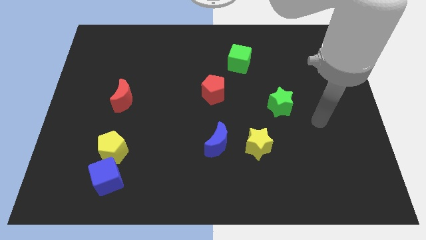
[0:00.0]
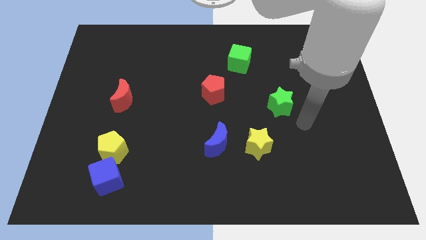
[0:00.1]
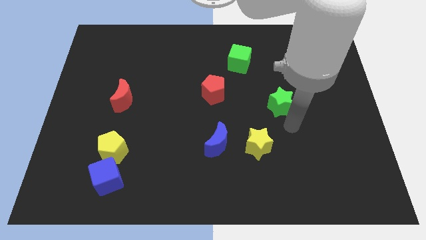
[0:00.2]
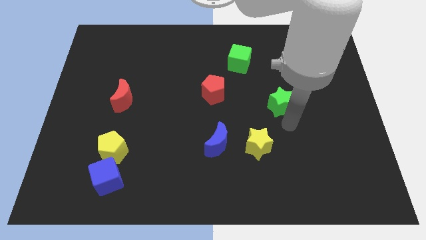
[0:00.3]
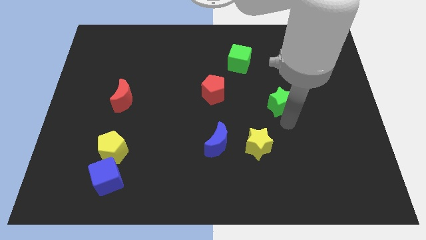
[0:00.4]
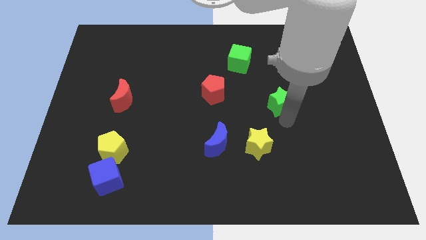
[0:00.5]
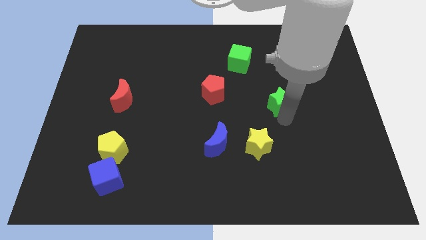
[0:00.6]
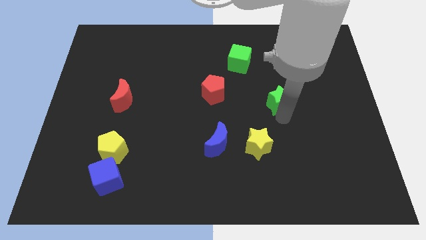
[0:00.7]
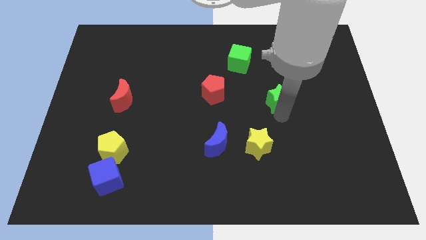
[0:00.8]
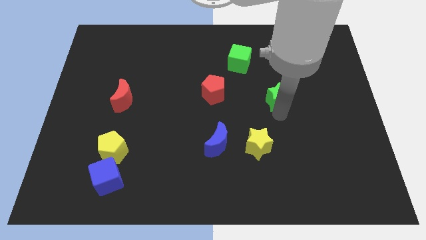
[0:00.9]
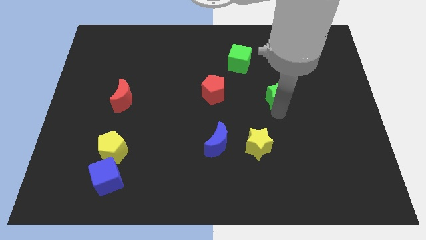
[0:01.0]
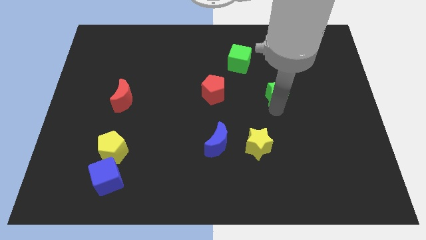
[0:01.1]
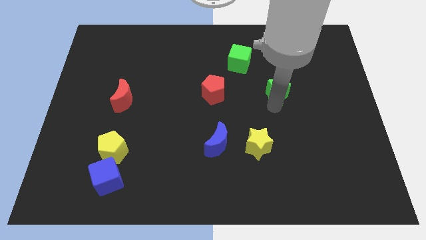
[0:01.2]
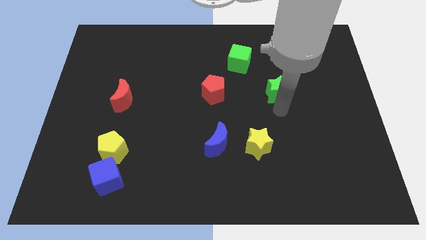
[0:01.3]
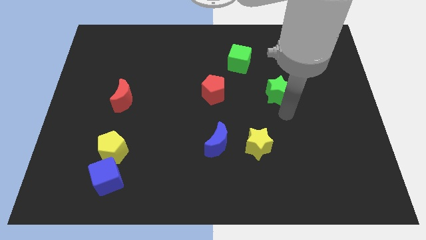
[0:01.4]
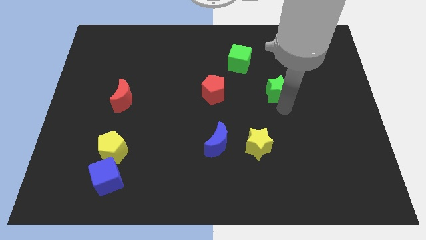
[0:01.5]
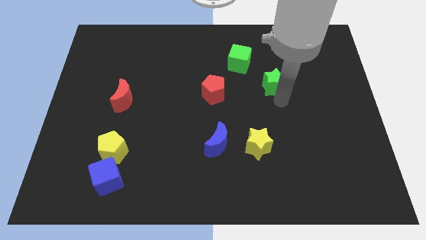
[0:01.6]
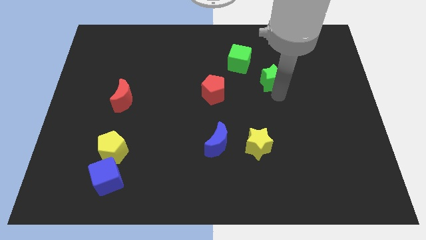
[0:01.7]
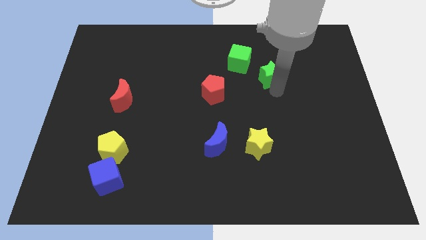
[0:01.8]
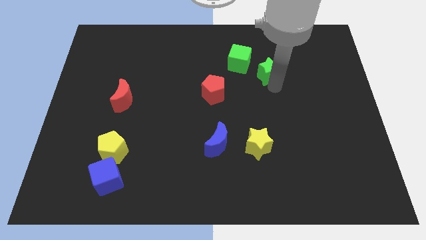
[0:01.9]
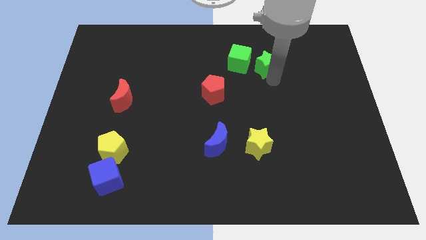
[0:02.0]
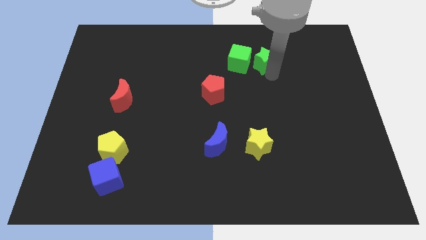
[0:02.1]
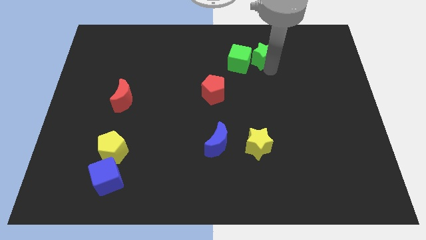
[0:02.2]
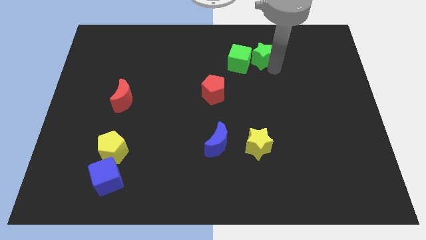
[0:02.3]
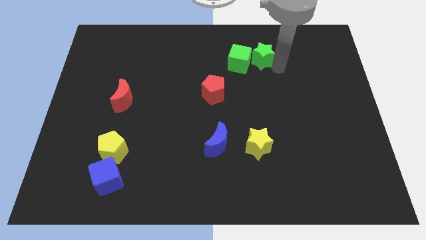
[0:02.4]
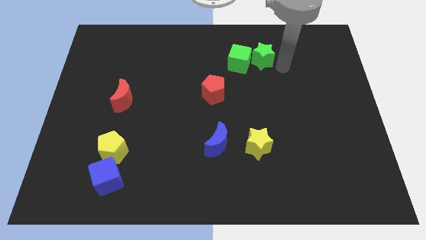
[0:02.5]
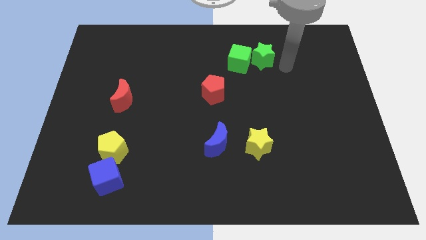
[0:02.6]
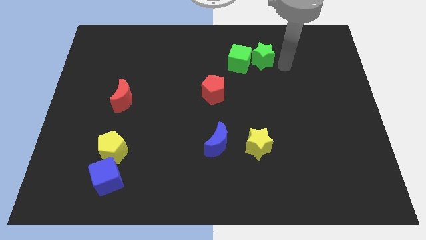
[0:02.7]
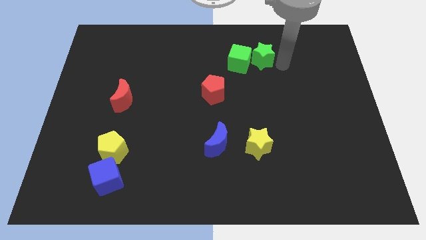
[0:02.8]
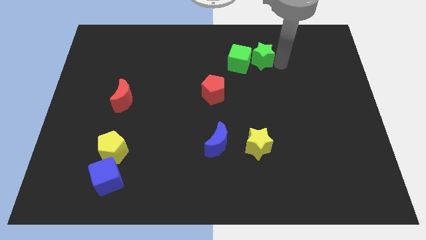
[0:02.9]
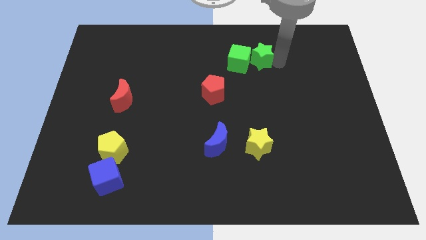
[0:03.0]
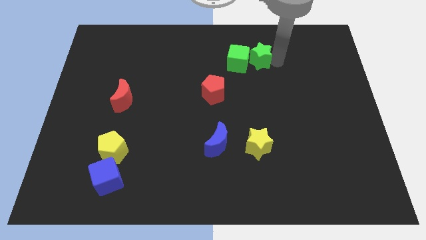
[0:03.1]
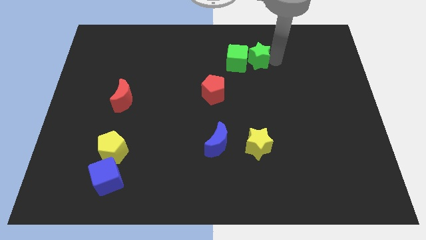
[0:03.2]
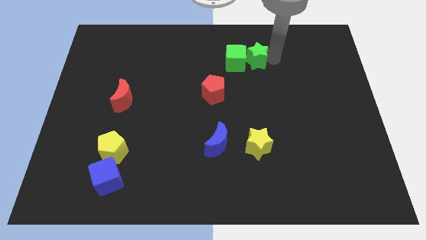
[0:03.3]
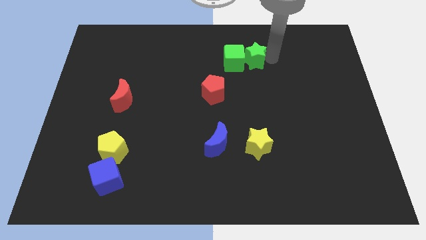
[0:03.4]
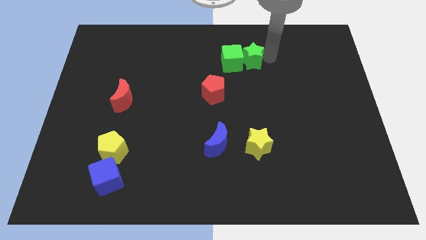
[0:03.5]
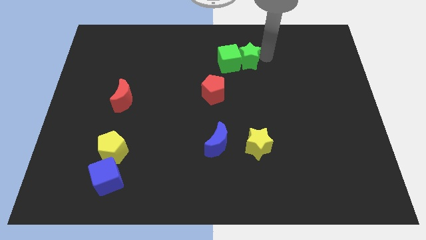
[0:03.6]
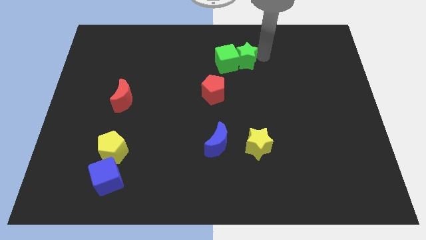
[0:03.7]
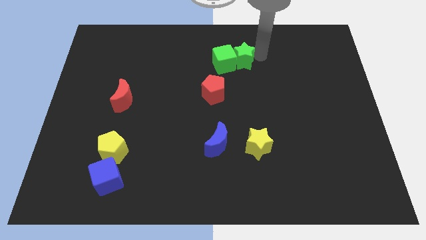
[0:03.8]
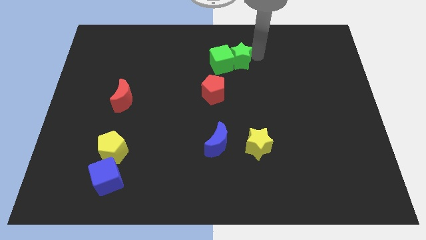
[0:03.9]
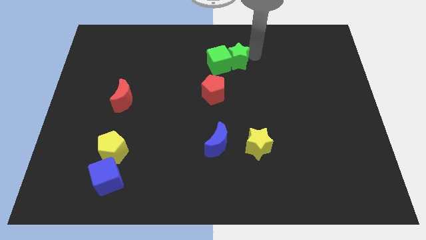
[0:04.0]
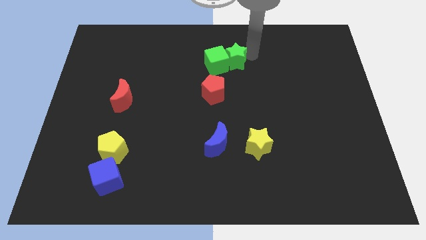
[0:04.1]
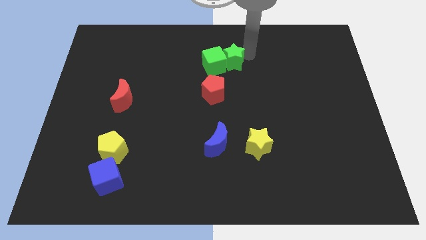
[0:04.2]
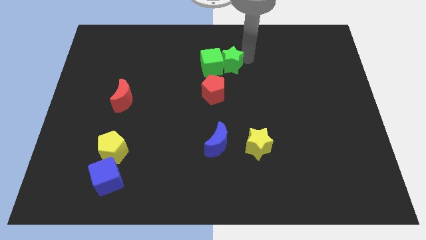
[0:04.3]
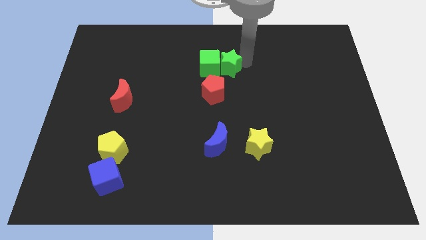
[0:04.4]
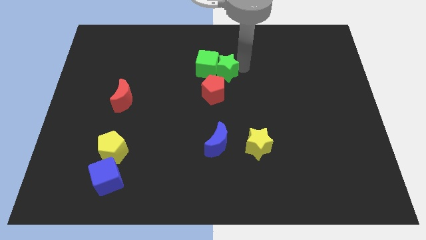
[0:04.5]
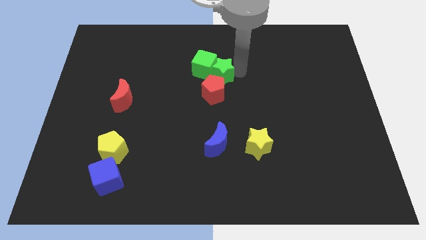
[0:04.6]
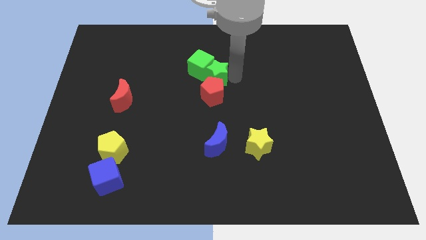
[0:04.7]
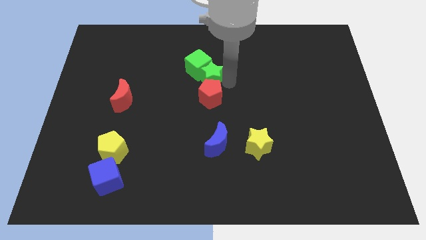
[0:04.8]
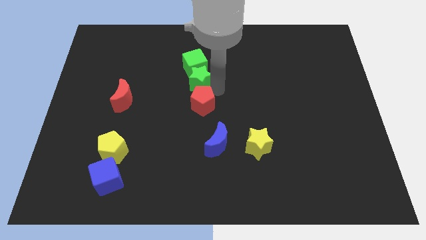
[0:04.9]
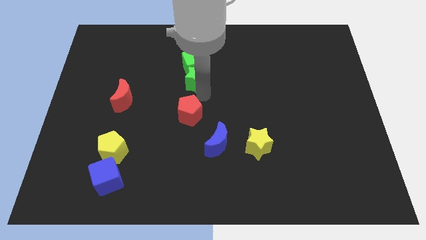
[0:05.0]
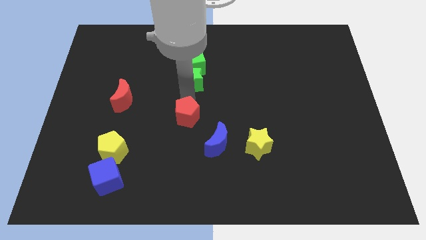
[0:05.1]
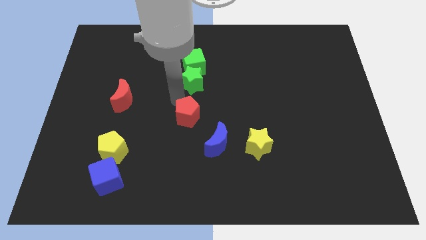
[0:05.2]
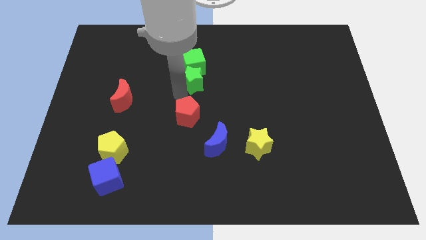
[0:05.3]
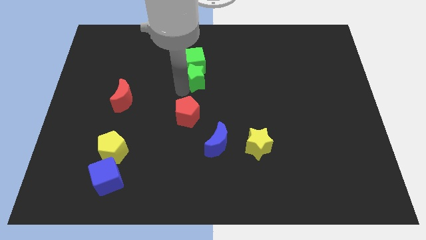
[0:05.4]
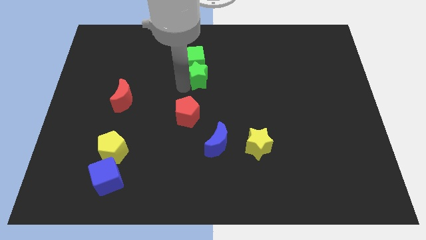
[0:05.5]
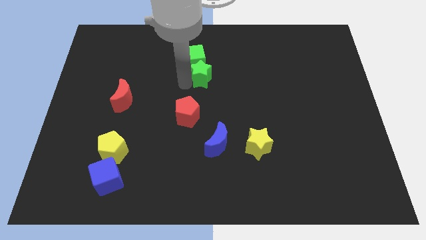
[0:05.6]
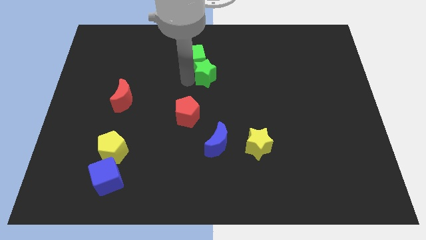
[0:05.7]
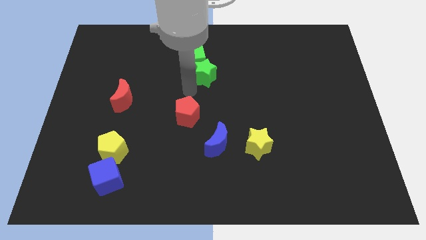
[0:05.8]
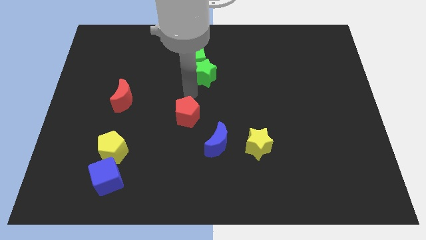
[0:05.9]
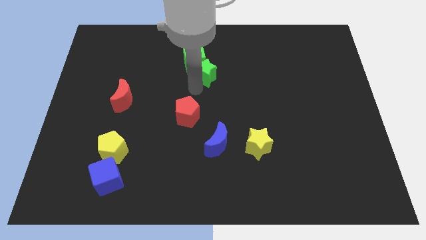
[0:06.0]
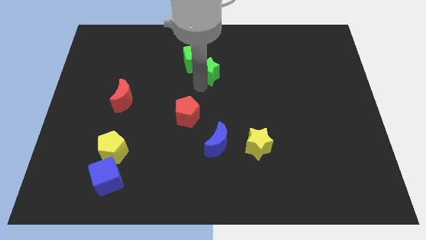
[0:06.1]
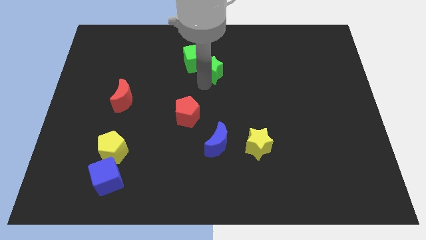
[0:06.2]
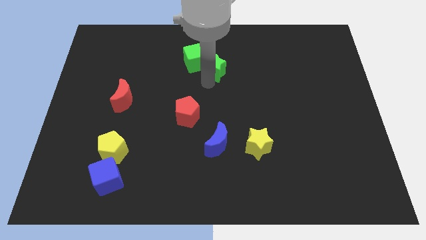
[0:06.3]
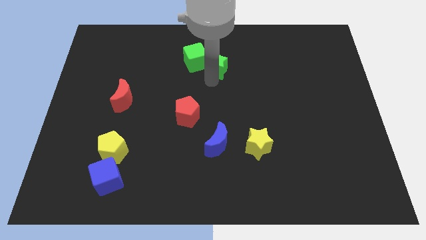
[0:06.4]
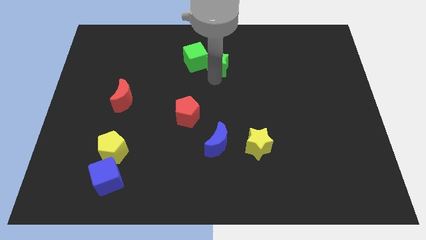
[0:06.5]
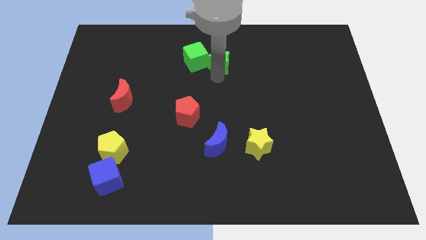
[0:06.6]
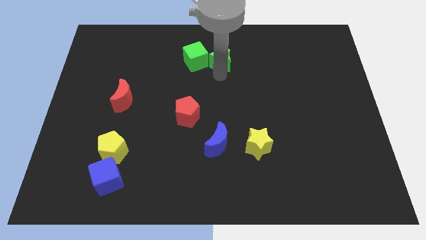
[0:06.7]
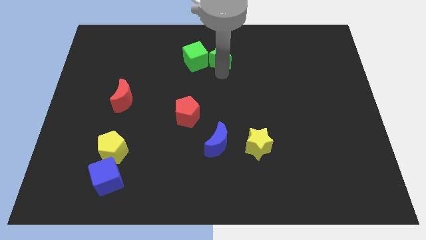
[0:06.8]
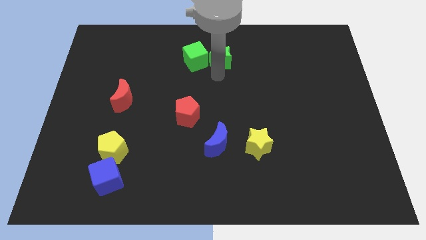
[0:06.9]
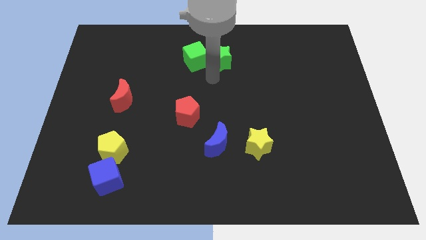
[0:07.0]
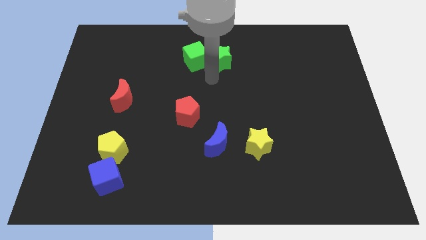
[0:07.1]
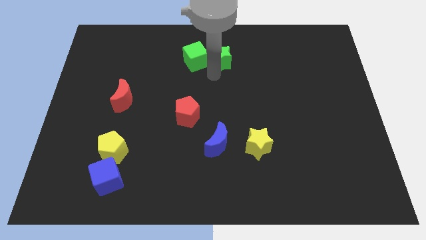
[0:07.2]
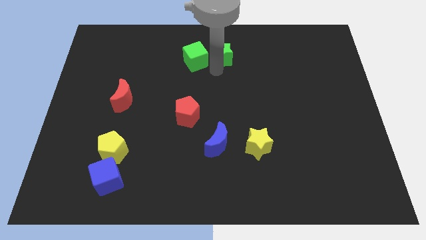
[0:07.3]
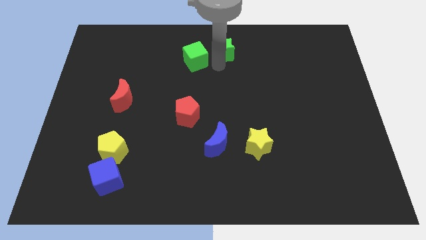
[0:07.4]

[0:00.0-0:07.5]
slide the green star to the top
